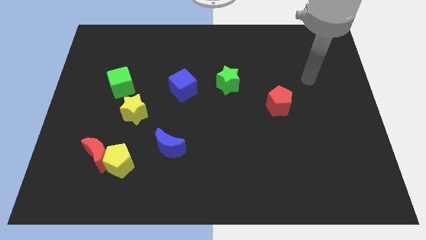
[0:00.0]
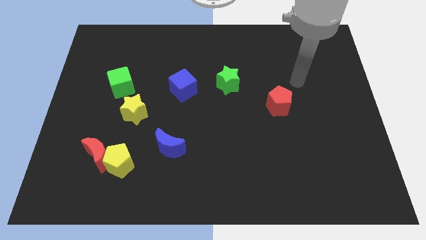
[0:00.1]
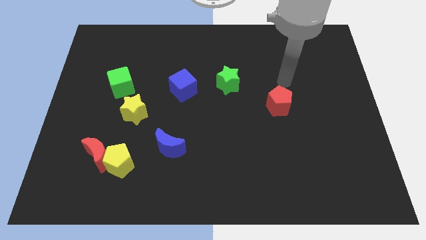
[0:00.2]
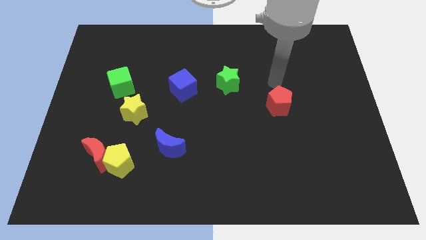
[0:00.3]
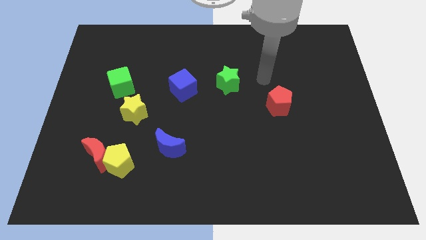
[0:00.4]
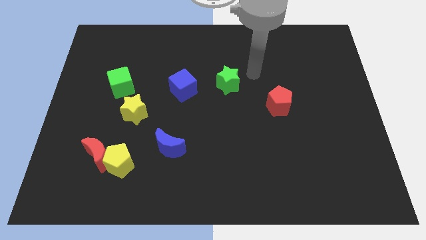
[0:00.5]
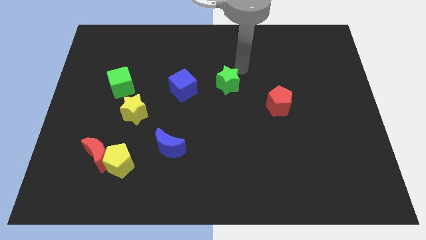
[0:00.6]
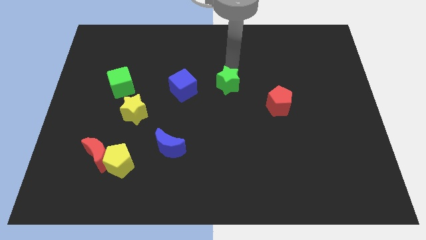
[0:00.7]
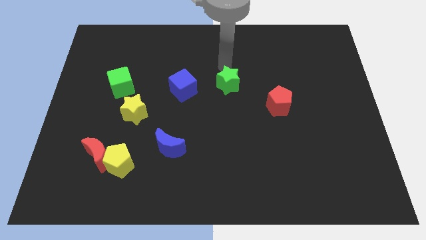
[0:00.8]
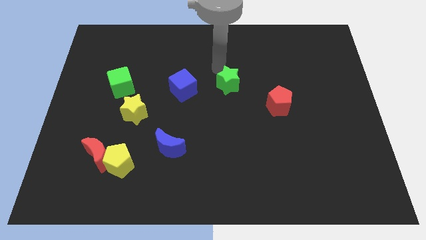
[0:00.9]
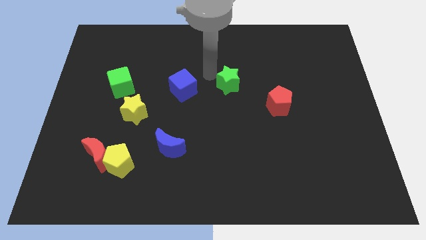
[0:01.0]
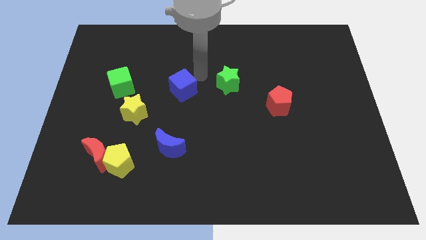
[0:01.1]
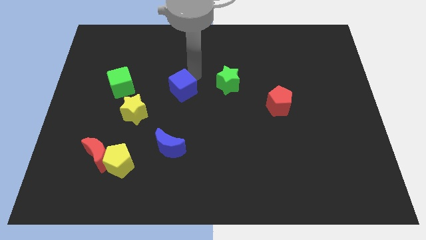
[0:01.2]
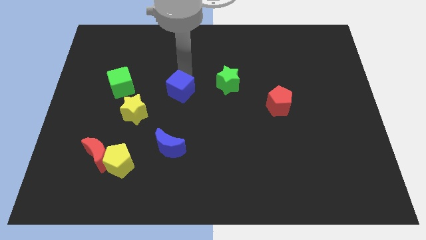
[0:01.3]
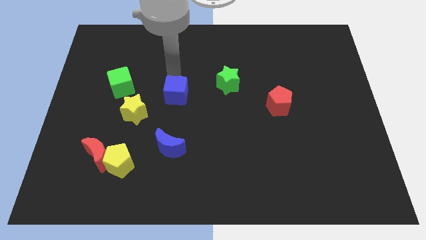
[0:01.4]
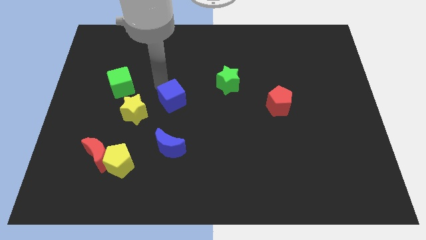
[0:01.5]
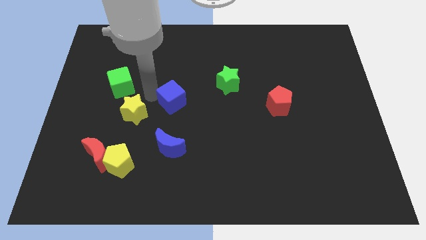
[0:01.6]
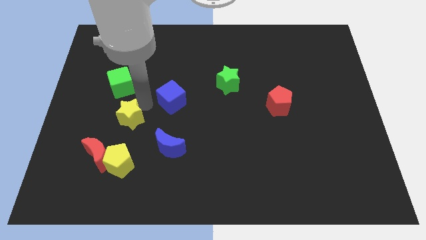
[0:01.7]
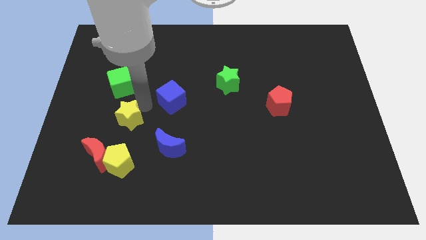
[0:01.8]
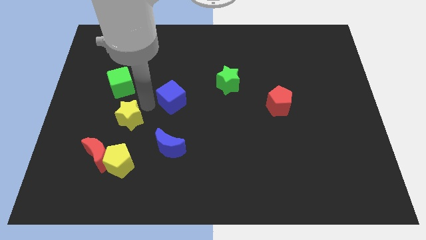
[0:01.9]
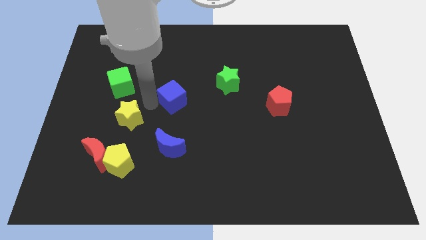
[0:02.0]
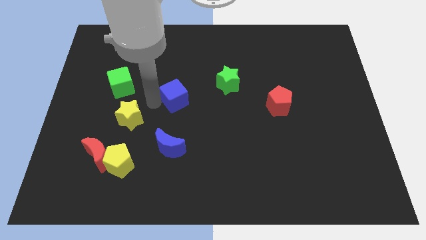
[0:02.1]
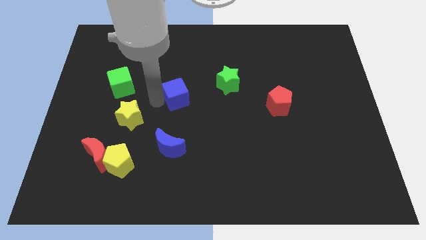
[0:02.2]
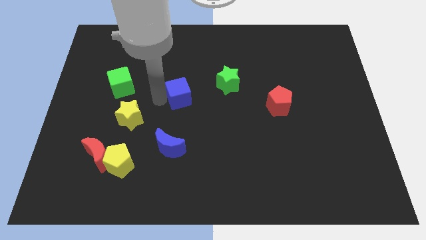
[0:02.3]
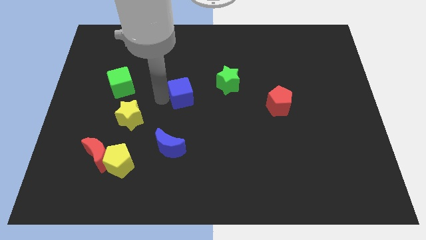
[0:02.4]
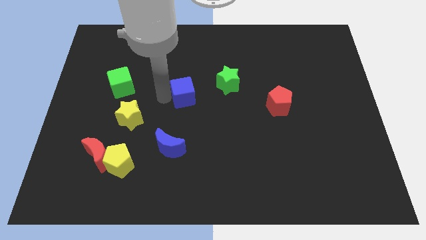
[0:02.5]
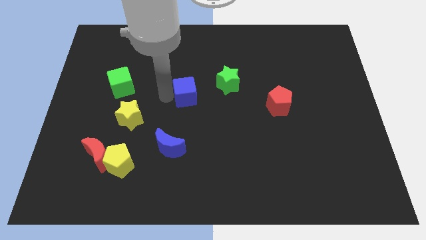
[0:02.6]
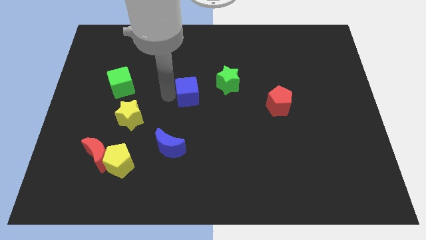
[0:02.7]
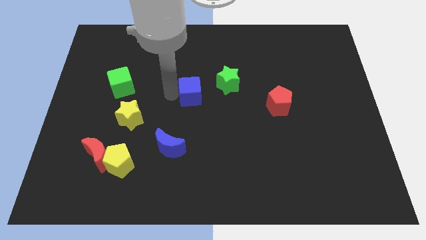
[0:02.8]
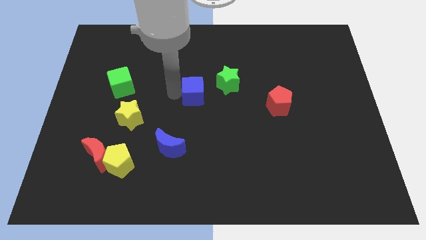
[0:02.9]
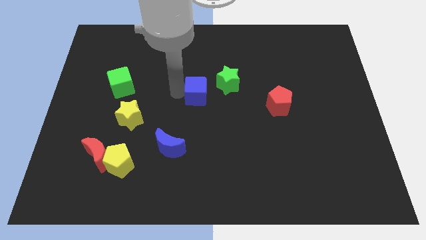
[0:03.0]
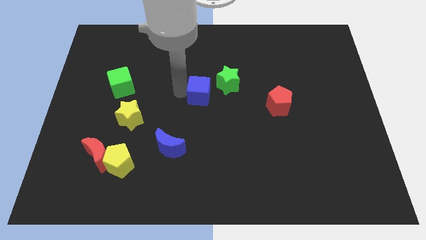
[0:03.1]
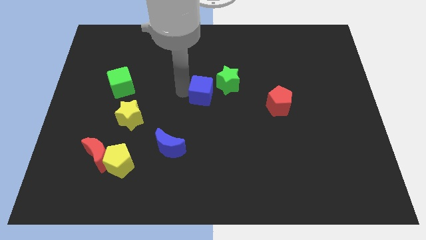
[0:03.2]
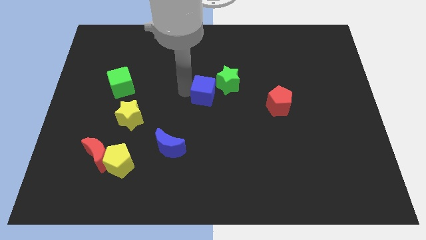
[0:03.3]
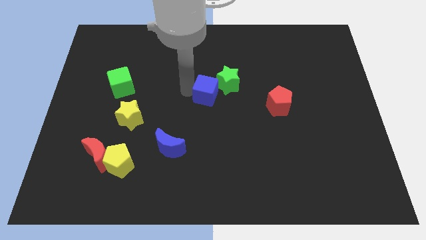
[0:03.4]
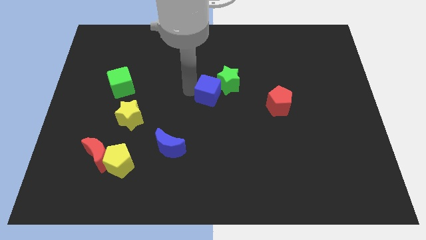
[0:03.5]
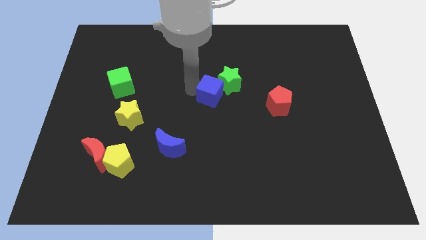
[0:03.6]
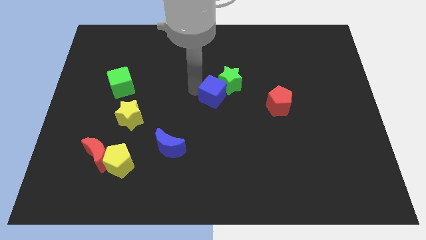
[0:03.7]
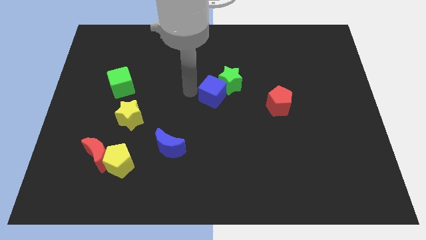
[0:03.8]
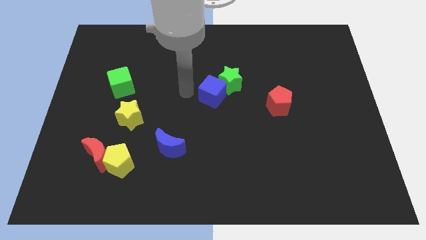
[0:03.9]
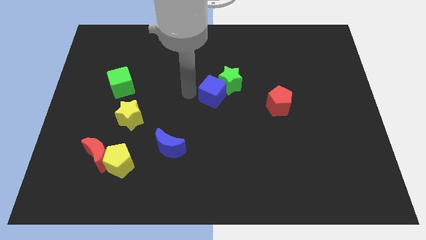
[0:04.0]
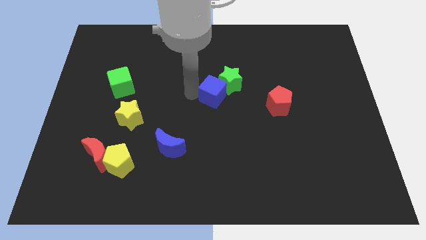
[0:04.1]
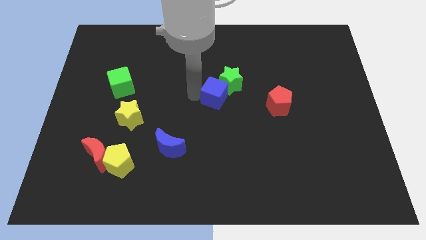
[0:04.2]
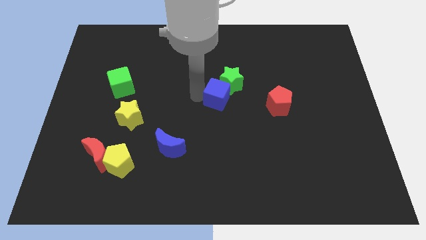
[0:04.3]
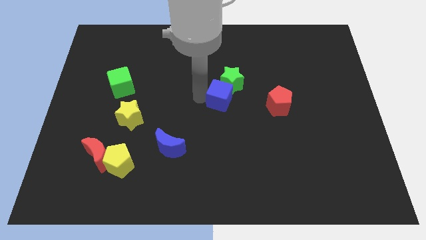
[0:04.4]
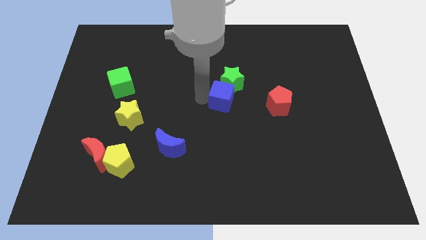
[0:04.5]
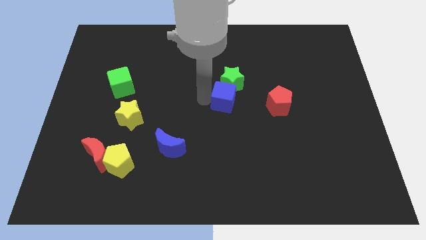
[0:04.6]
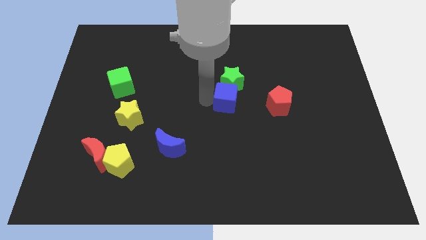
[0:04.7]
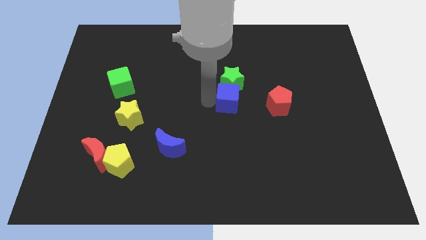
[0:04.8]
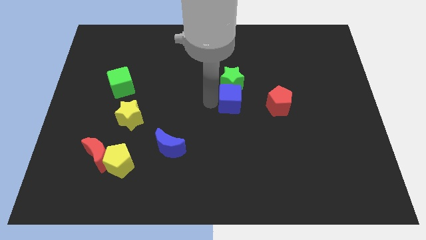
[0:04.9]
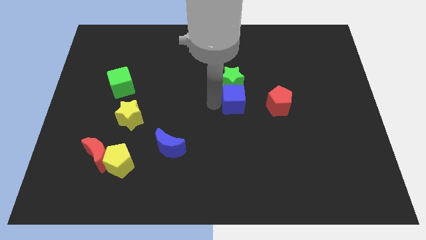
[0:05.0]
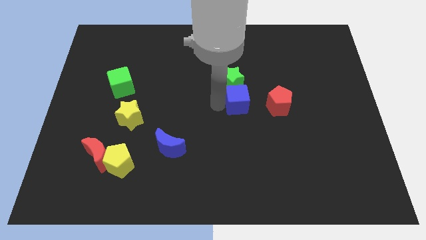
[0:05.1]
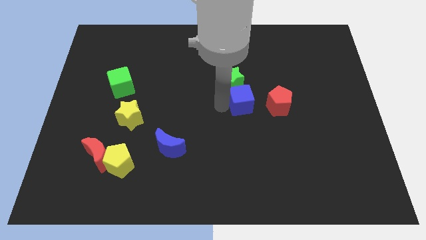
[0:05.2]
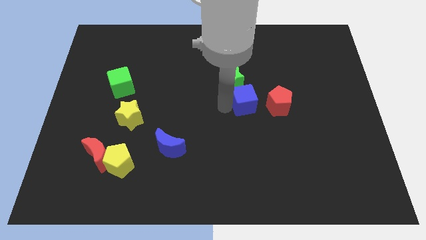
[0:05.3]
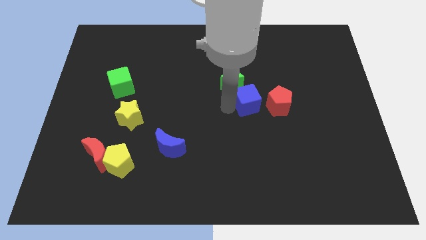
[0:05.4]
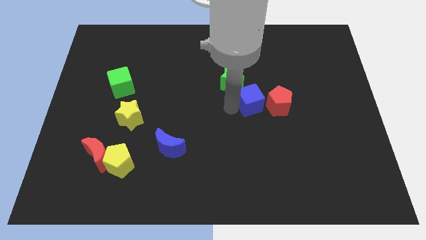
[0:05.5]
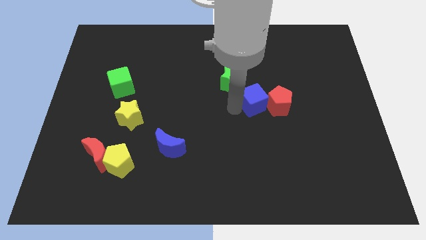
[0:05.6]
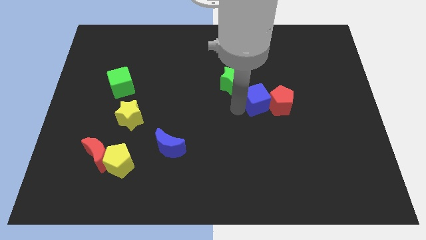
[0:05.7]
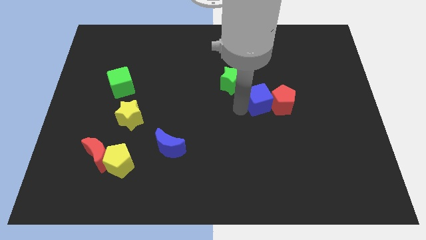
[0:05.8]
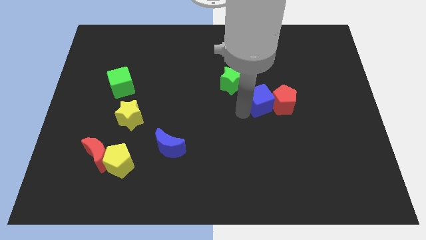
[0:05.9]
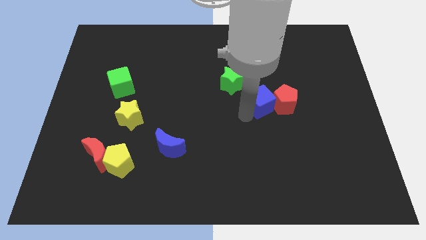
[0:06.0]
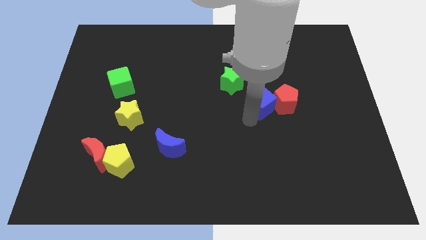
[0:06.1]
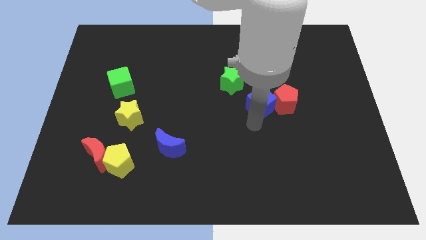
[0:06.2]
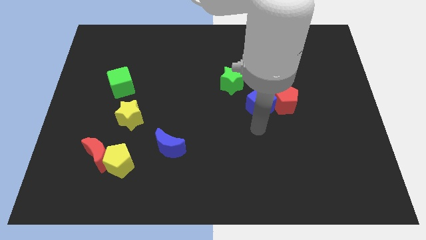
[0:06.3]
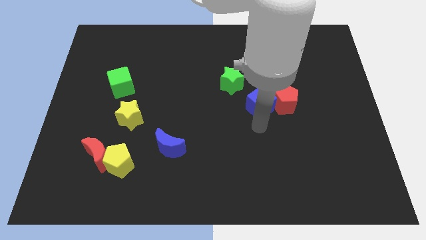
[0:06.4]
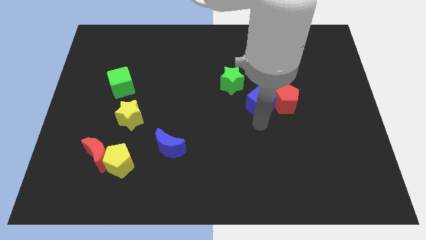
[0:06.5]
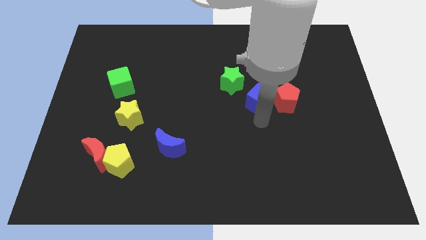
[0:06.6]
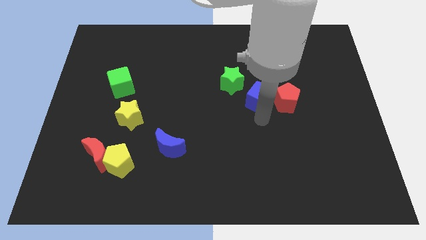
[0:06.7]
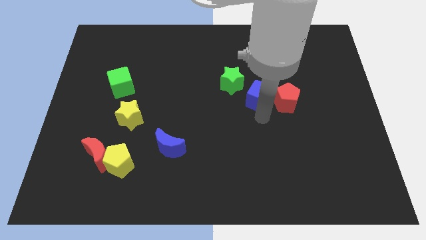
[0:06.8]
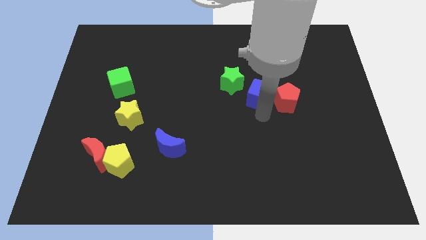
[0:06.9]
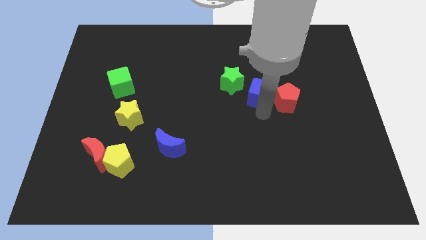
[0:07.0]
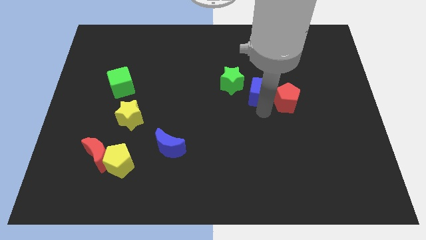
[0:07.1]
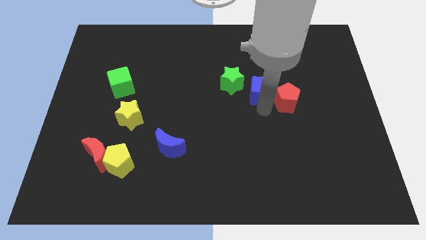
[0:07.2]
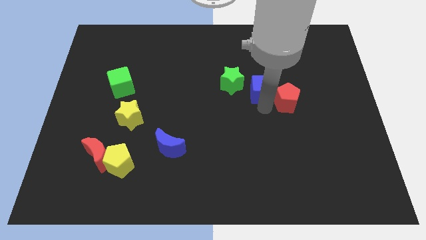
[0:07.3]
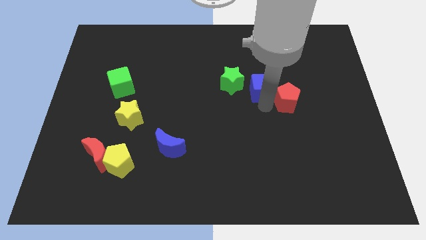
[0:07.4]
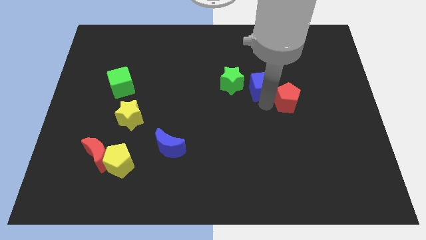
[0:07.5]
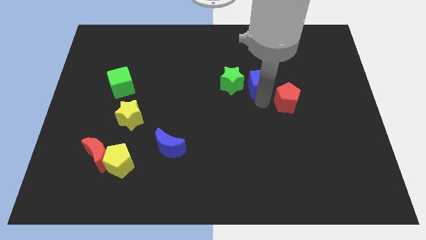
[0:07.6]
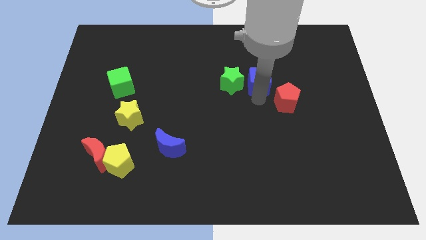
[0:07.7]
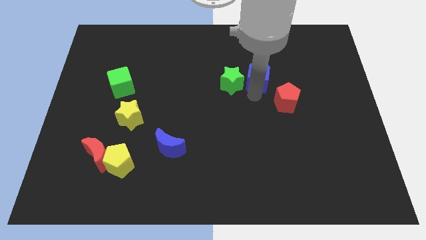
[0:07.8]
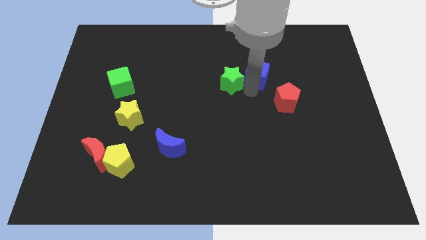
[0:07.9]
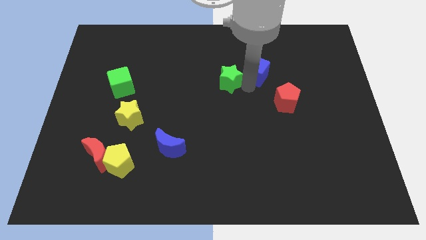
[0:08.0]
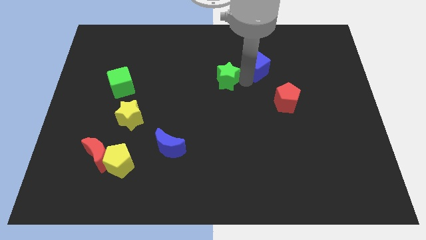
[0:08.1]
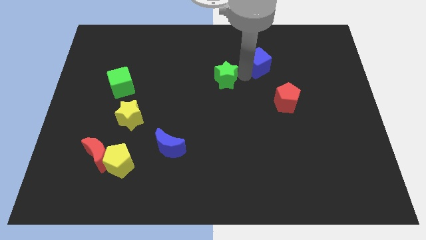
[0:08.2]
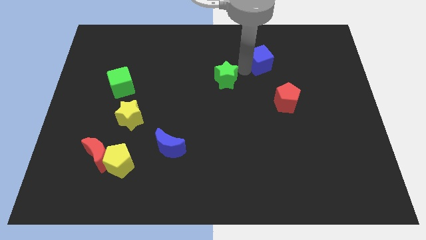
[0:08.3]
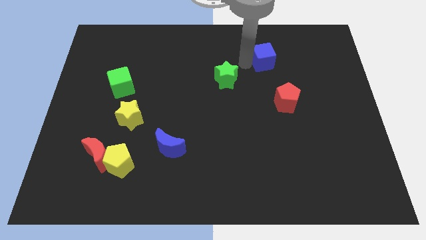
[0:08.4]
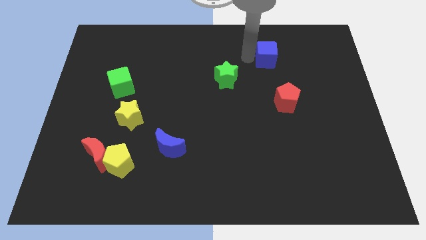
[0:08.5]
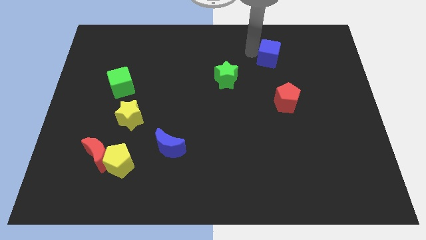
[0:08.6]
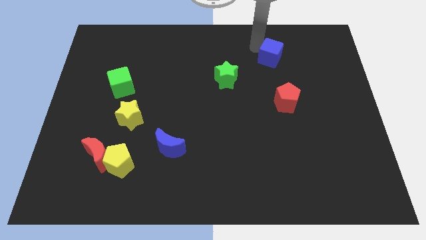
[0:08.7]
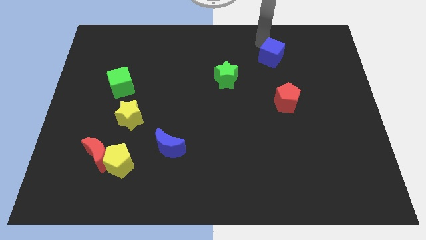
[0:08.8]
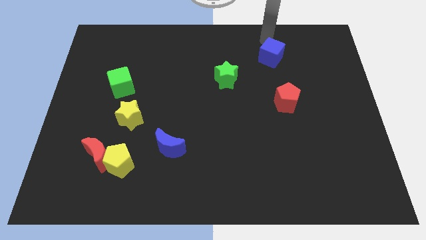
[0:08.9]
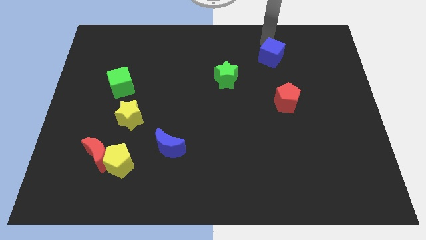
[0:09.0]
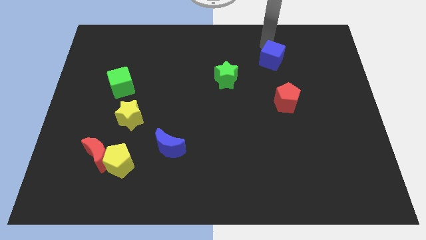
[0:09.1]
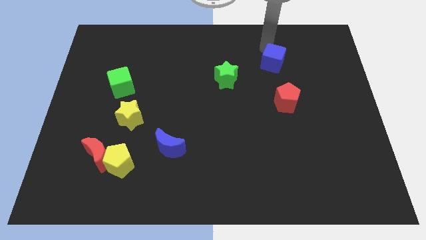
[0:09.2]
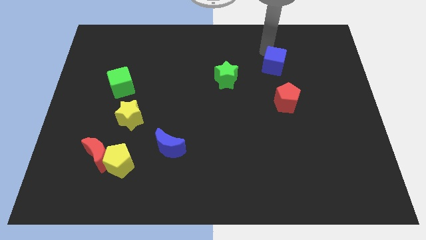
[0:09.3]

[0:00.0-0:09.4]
slide the blue cube to the right
